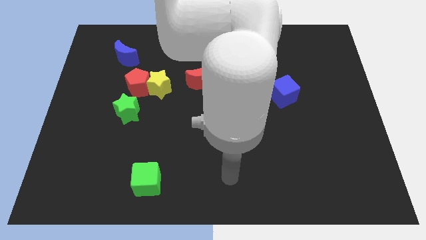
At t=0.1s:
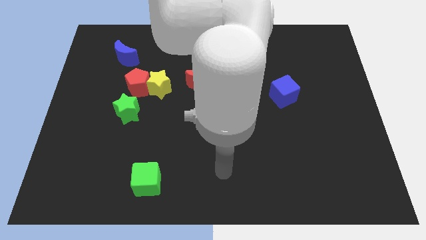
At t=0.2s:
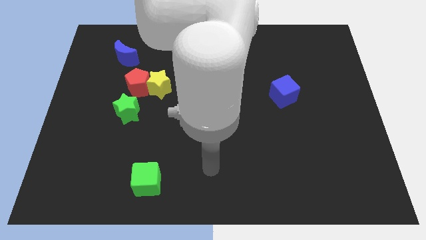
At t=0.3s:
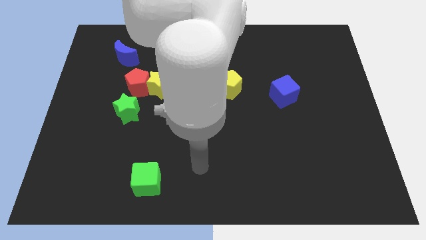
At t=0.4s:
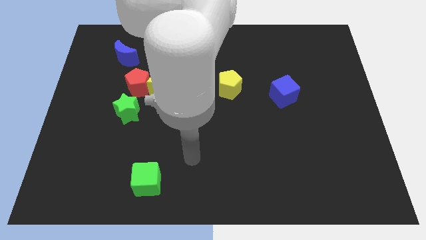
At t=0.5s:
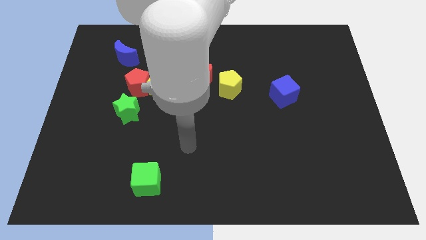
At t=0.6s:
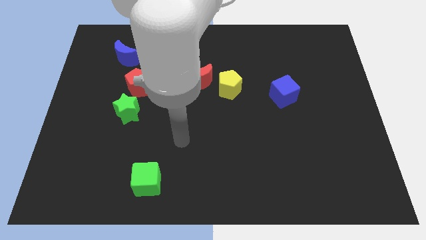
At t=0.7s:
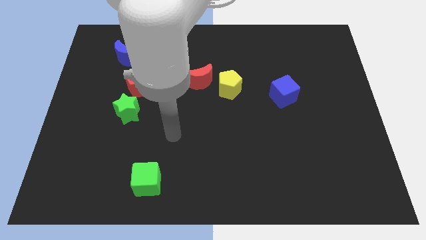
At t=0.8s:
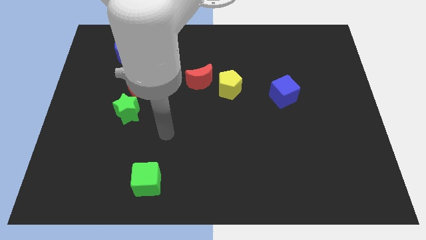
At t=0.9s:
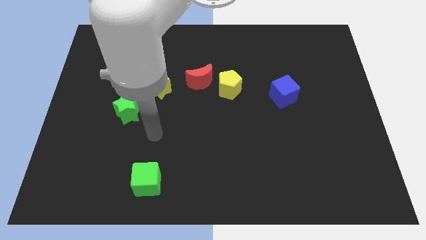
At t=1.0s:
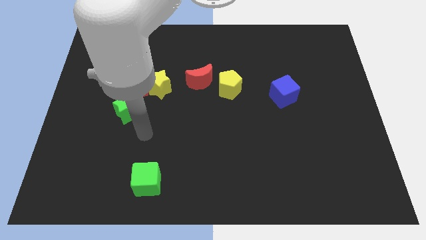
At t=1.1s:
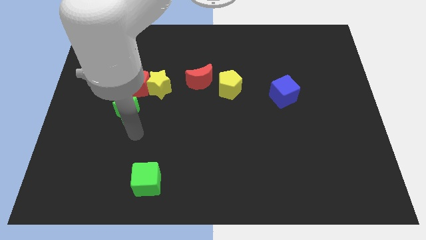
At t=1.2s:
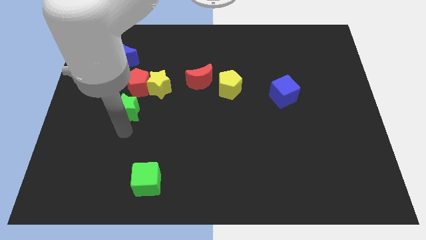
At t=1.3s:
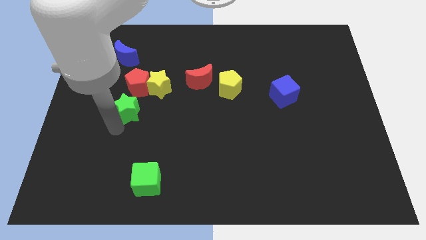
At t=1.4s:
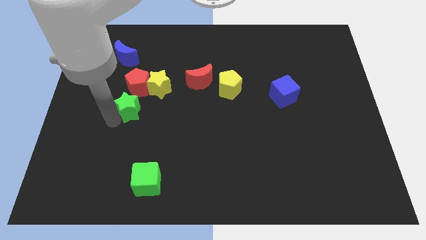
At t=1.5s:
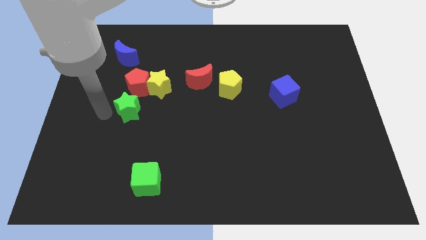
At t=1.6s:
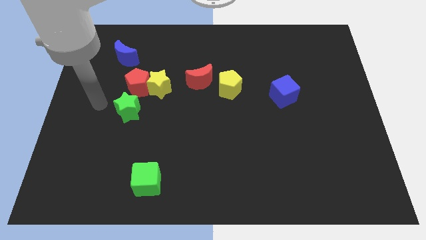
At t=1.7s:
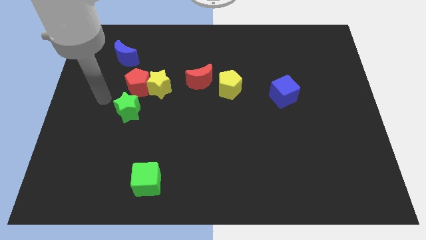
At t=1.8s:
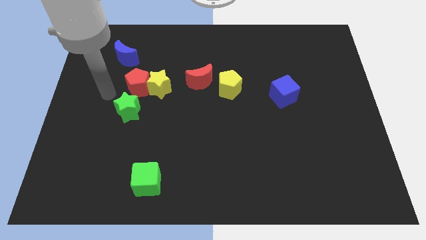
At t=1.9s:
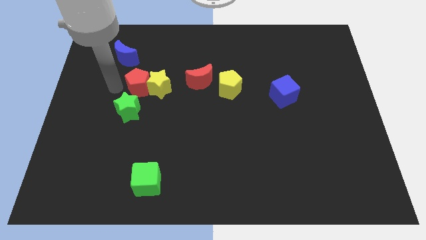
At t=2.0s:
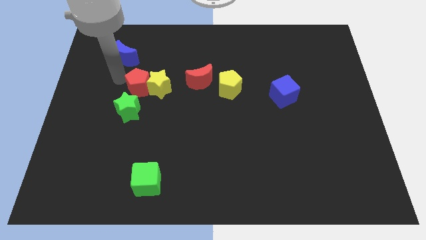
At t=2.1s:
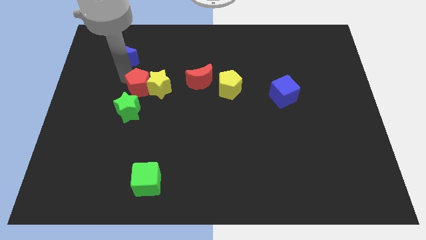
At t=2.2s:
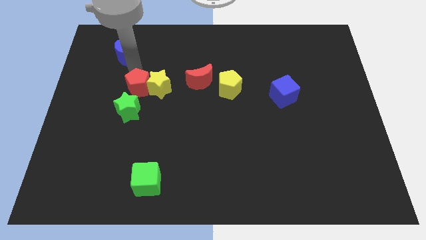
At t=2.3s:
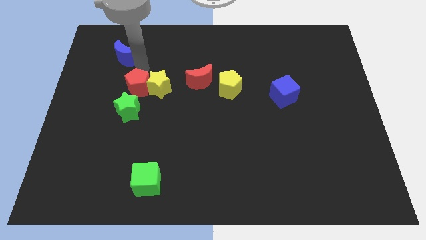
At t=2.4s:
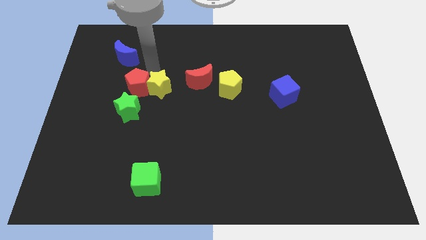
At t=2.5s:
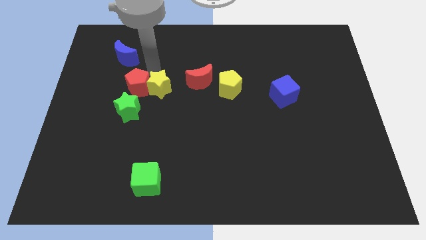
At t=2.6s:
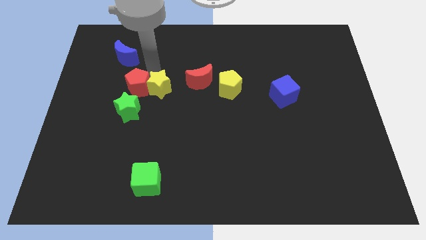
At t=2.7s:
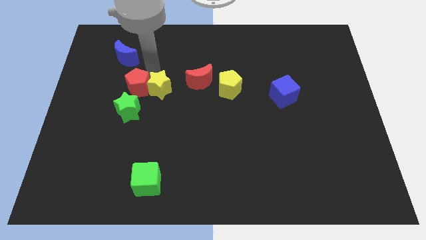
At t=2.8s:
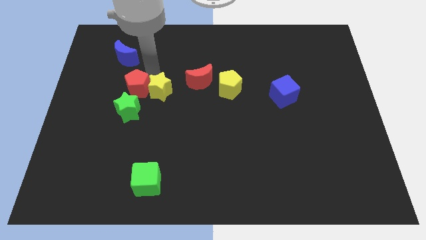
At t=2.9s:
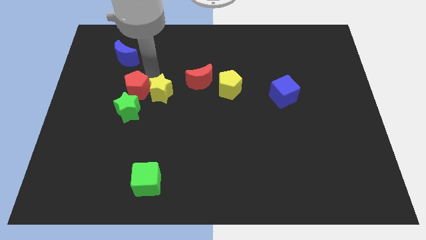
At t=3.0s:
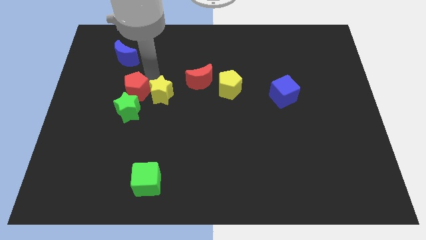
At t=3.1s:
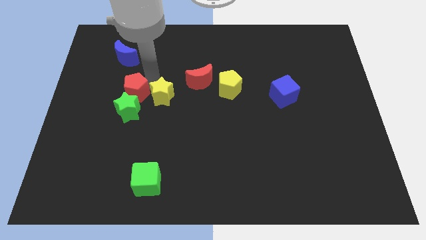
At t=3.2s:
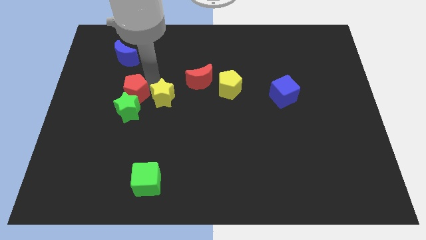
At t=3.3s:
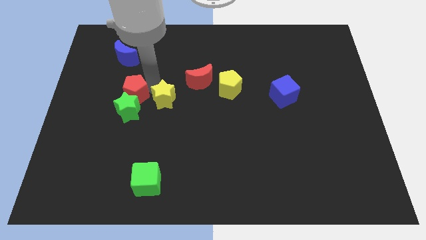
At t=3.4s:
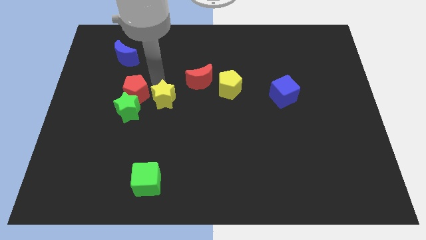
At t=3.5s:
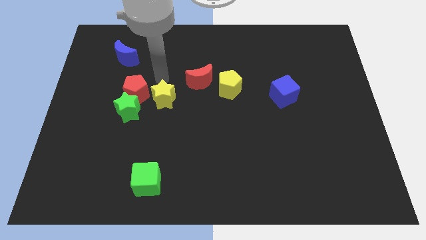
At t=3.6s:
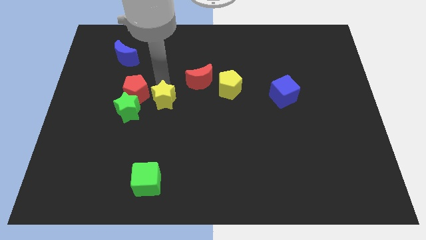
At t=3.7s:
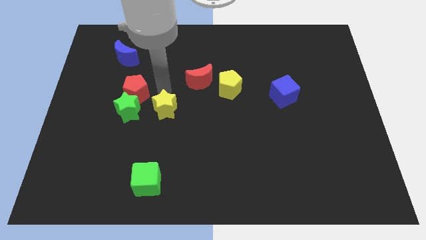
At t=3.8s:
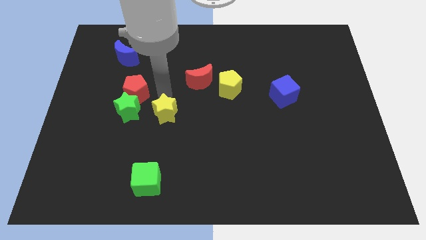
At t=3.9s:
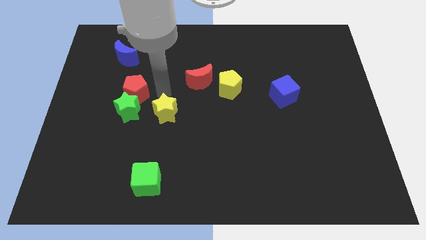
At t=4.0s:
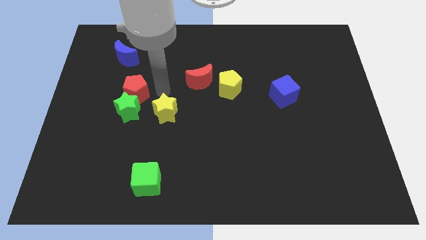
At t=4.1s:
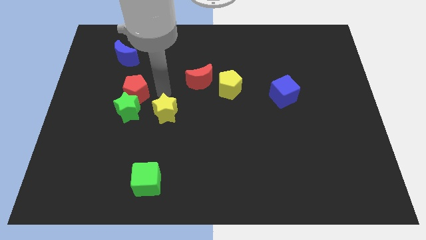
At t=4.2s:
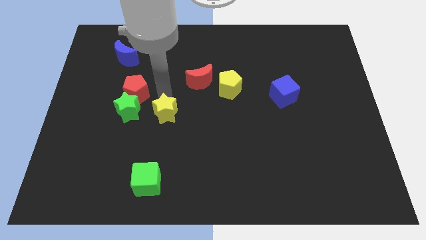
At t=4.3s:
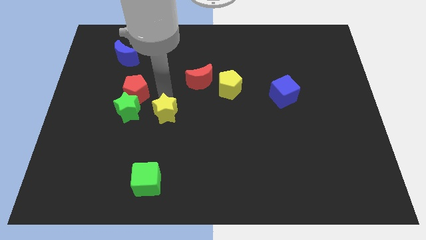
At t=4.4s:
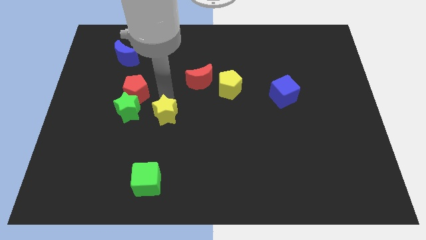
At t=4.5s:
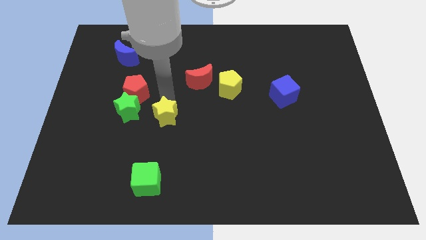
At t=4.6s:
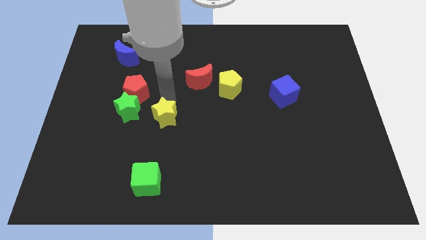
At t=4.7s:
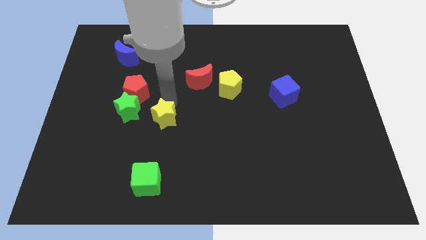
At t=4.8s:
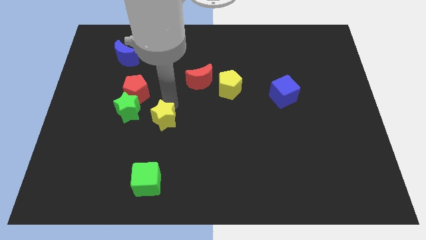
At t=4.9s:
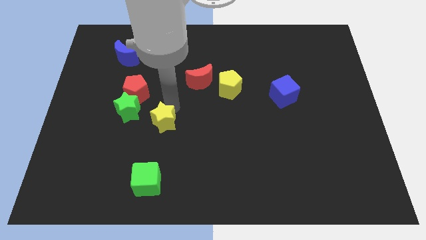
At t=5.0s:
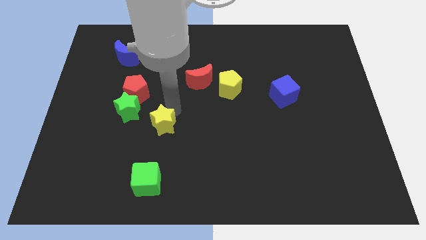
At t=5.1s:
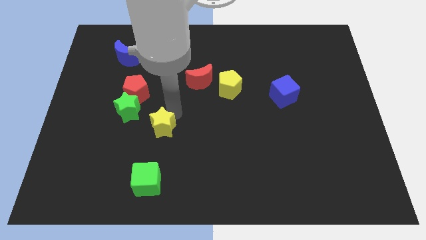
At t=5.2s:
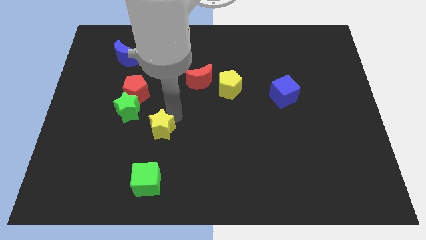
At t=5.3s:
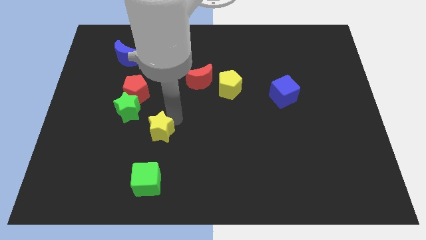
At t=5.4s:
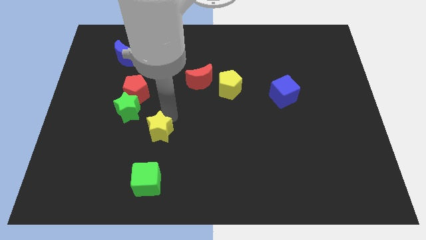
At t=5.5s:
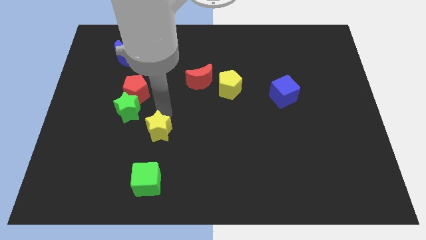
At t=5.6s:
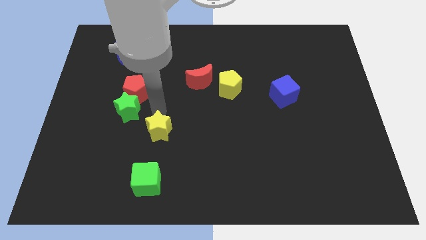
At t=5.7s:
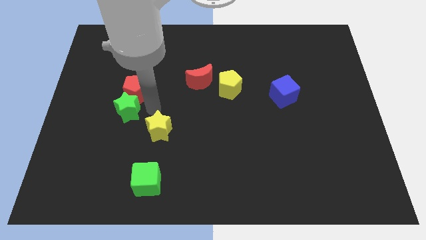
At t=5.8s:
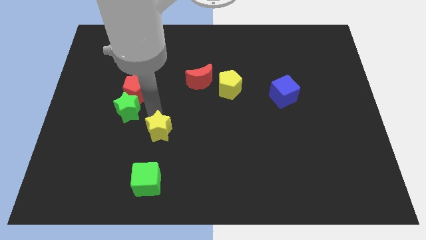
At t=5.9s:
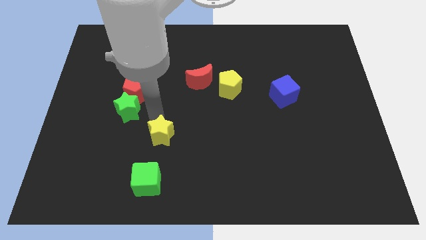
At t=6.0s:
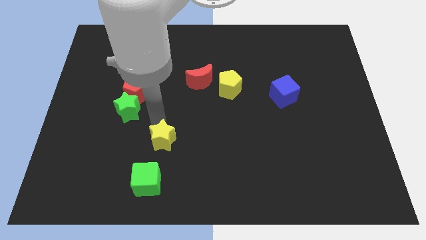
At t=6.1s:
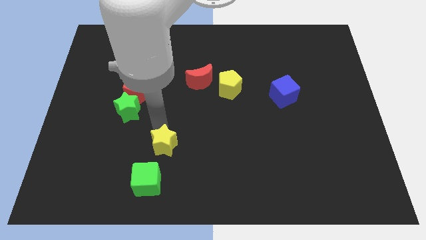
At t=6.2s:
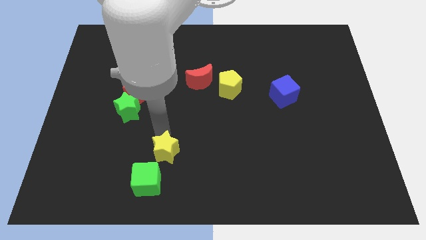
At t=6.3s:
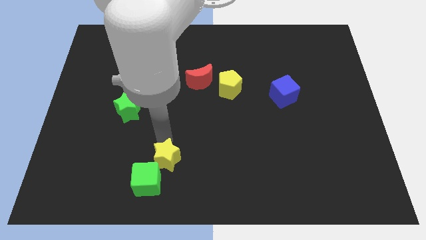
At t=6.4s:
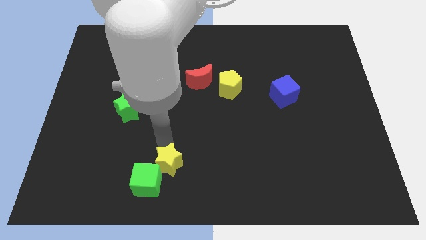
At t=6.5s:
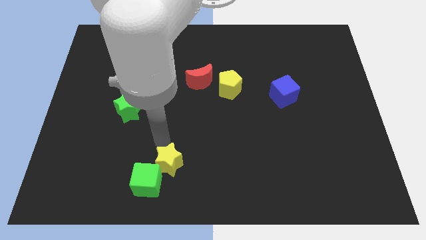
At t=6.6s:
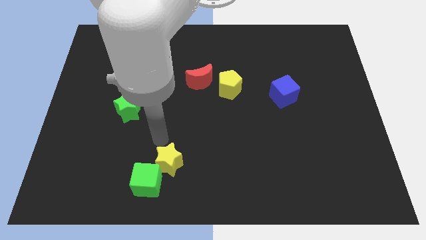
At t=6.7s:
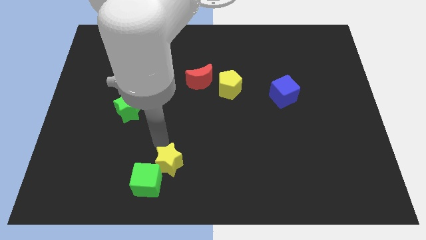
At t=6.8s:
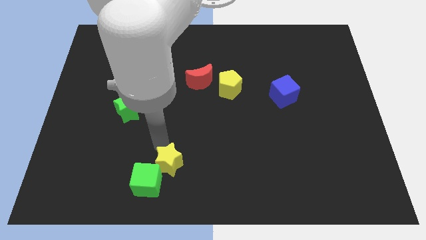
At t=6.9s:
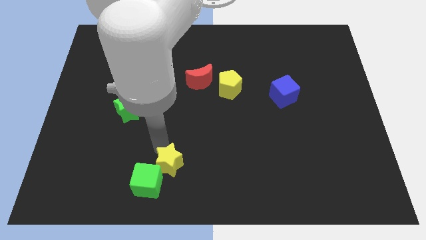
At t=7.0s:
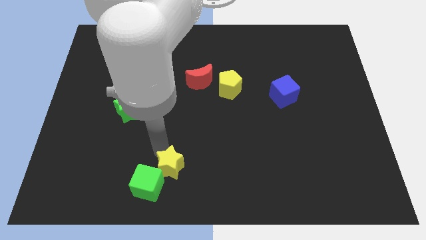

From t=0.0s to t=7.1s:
push the yellow star to the bottom

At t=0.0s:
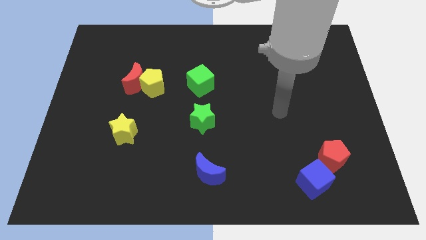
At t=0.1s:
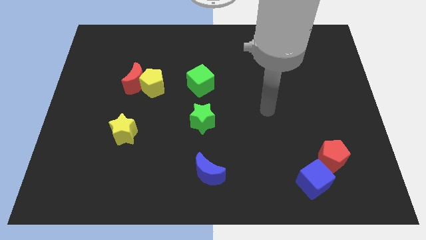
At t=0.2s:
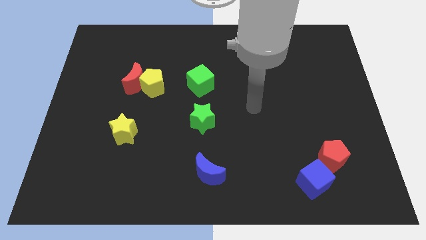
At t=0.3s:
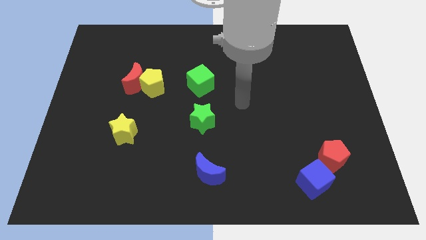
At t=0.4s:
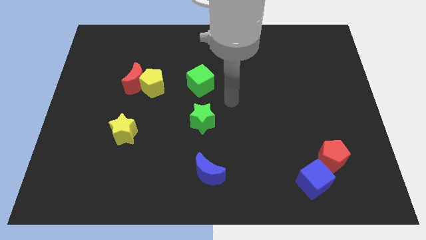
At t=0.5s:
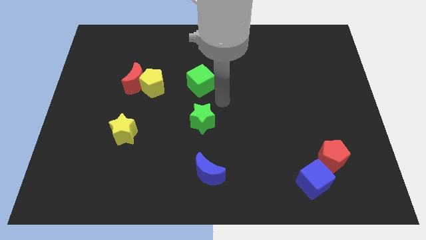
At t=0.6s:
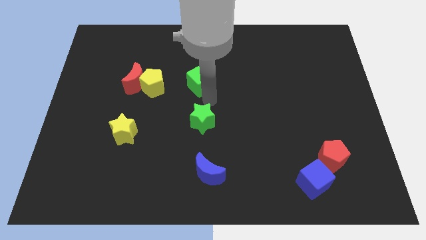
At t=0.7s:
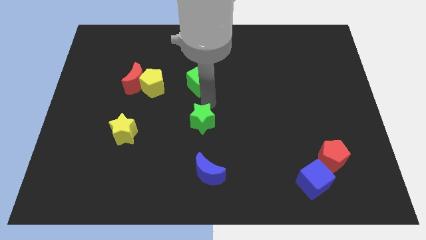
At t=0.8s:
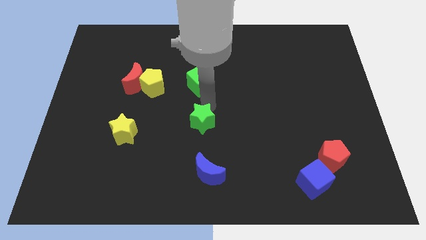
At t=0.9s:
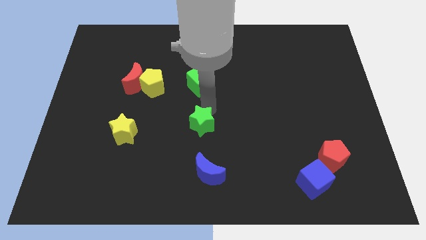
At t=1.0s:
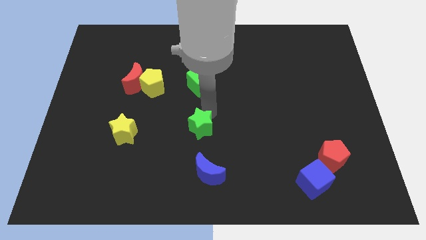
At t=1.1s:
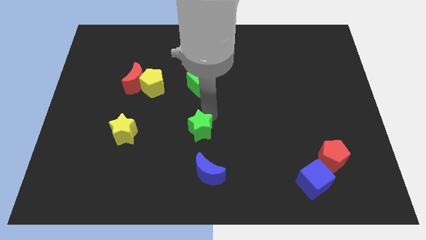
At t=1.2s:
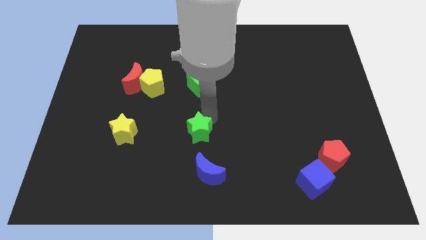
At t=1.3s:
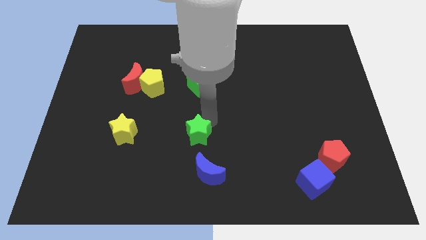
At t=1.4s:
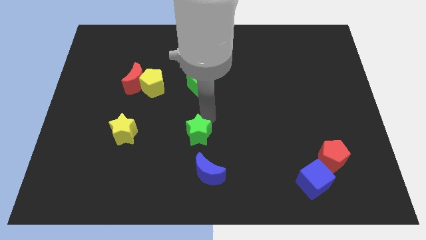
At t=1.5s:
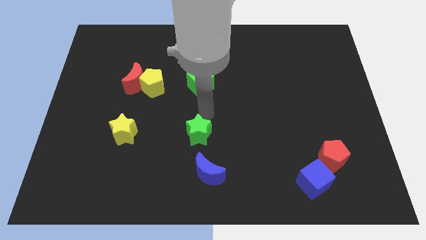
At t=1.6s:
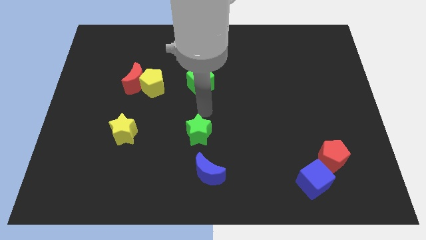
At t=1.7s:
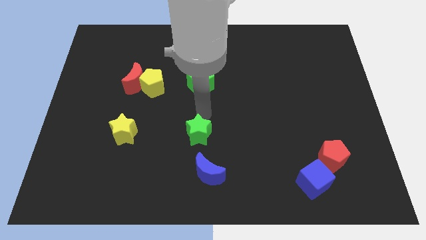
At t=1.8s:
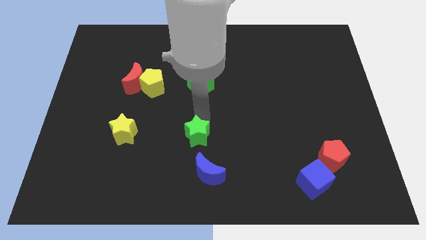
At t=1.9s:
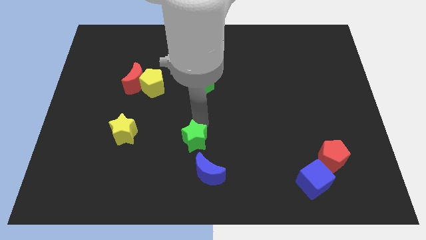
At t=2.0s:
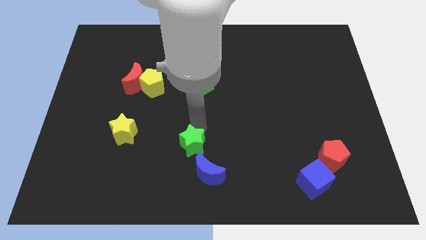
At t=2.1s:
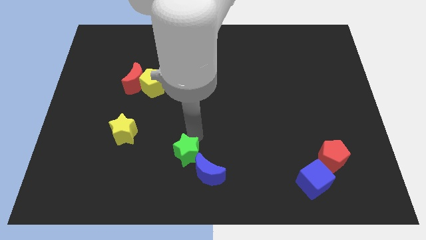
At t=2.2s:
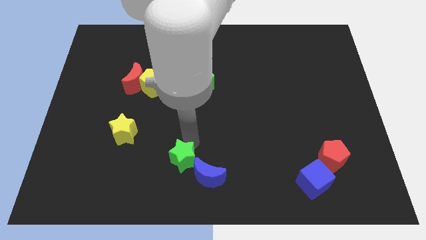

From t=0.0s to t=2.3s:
put the green star to the bottom
